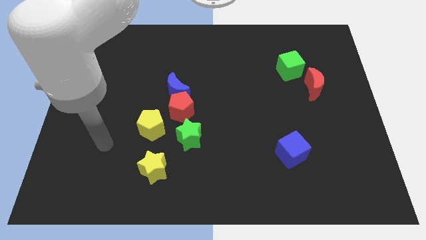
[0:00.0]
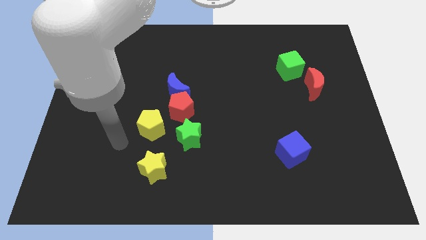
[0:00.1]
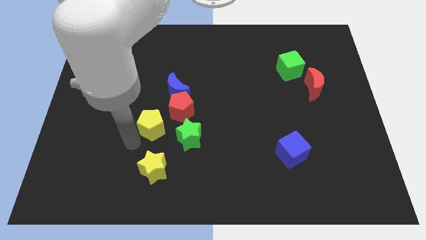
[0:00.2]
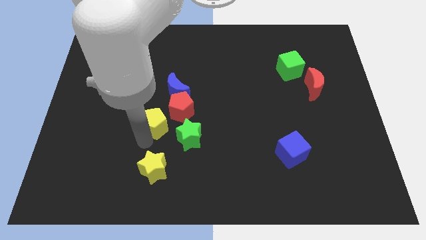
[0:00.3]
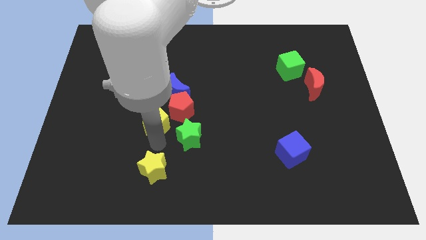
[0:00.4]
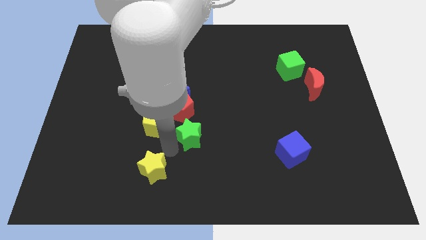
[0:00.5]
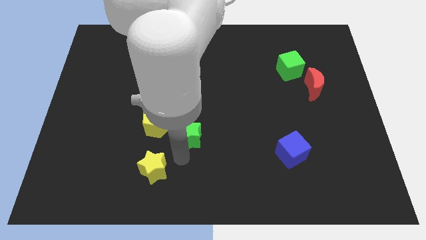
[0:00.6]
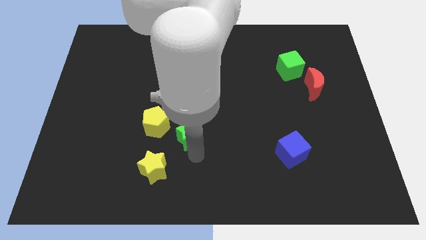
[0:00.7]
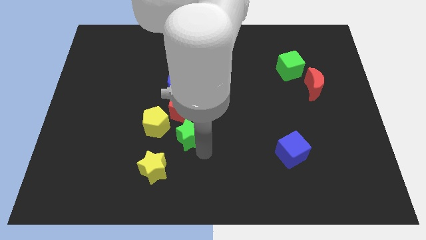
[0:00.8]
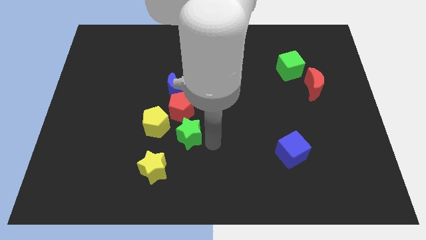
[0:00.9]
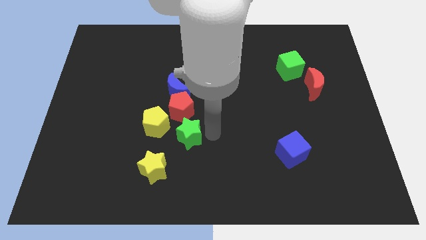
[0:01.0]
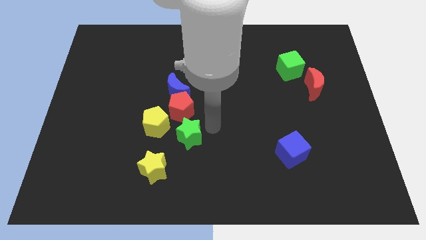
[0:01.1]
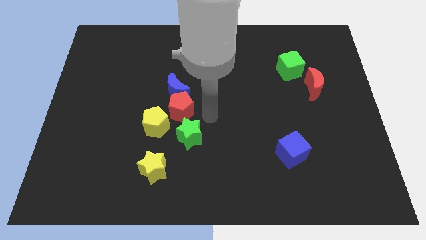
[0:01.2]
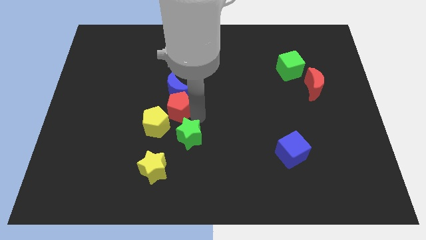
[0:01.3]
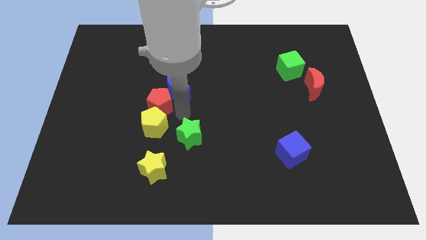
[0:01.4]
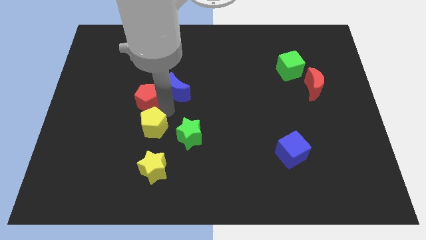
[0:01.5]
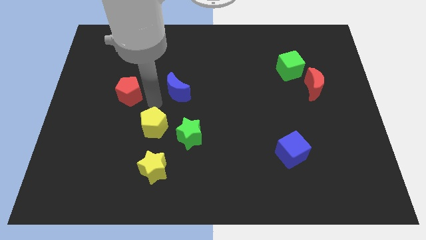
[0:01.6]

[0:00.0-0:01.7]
move the blue moon away from the red pentagon

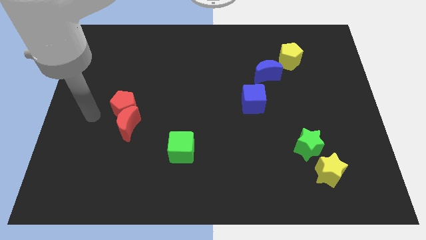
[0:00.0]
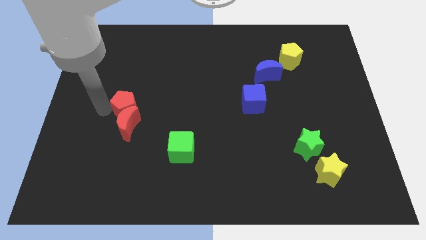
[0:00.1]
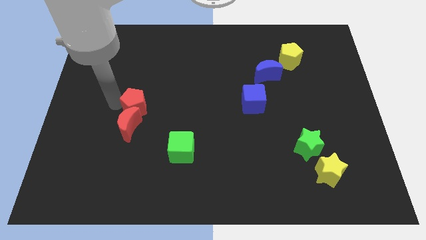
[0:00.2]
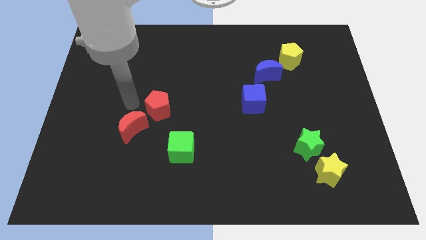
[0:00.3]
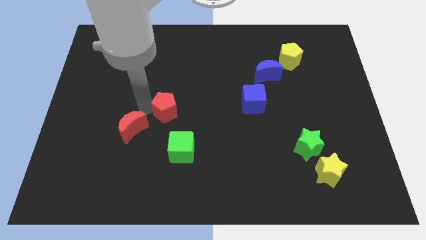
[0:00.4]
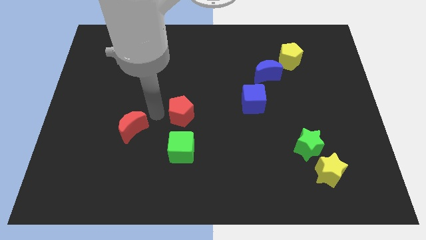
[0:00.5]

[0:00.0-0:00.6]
move the red moon away from the red pentagon

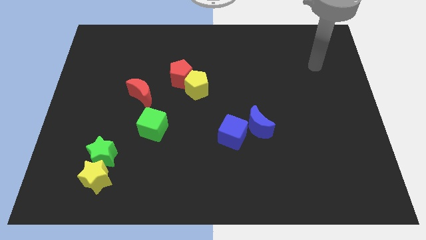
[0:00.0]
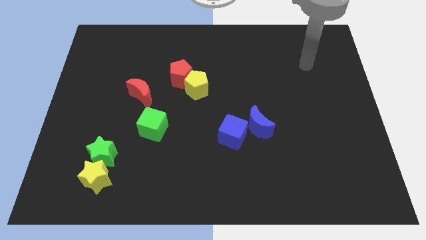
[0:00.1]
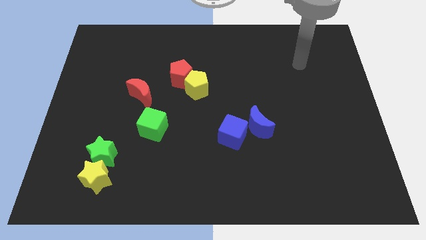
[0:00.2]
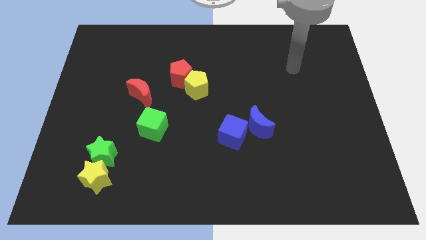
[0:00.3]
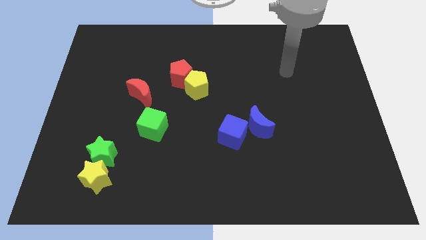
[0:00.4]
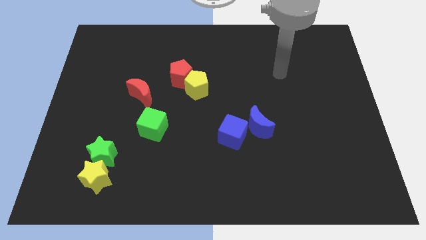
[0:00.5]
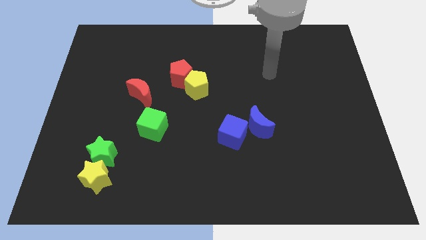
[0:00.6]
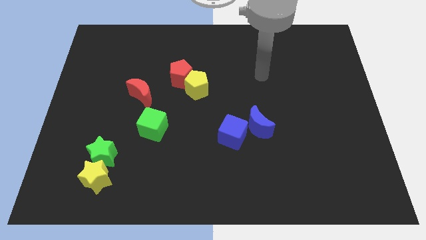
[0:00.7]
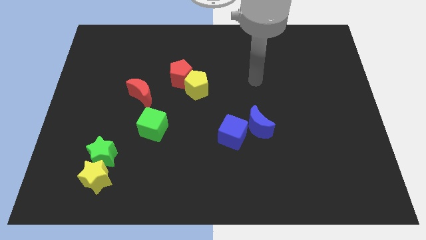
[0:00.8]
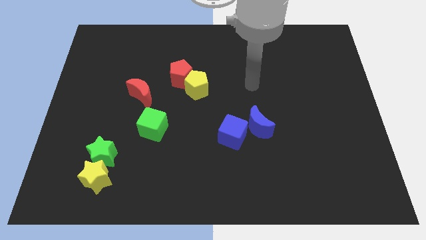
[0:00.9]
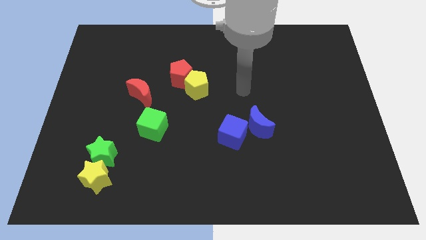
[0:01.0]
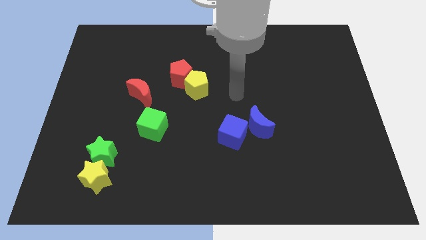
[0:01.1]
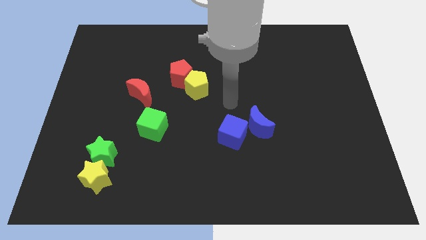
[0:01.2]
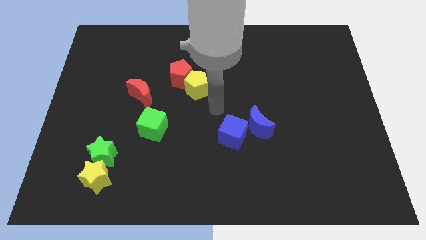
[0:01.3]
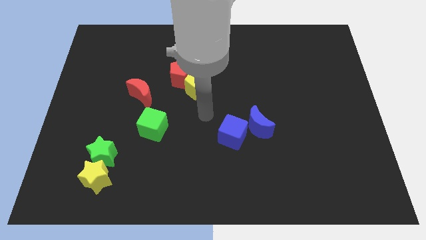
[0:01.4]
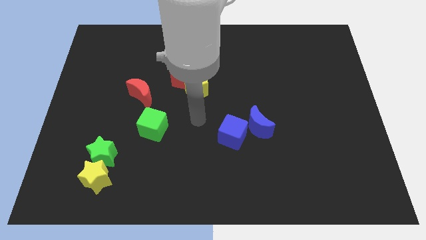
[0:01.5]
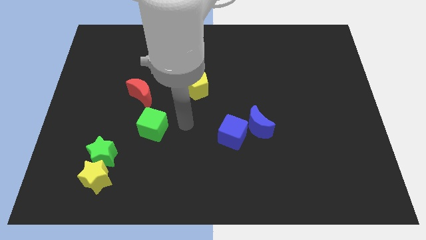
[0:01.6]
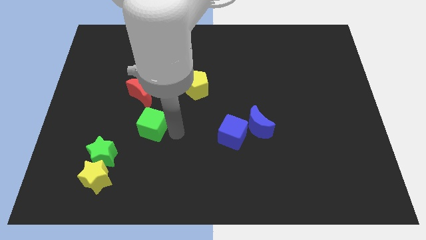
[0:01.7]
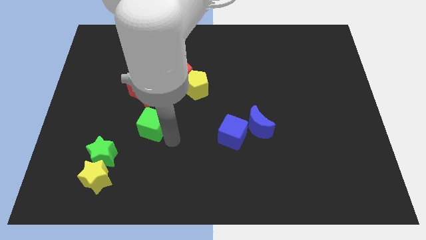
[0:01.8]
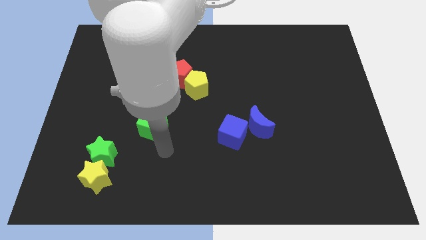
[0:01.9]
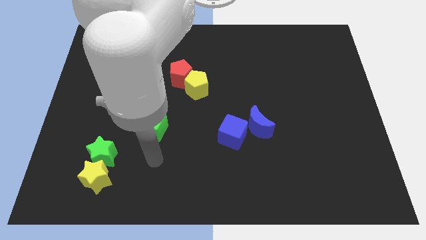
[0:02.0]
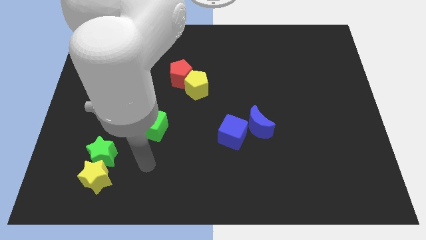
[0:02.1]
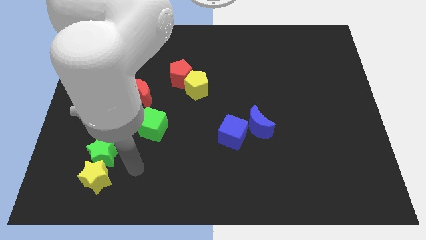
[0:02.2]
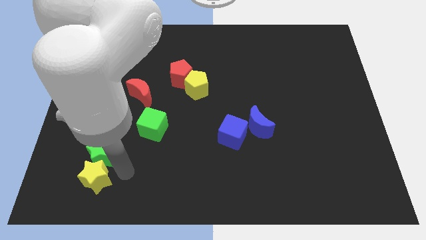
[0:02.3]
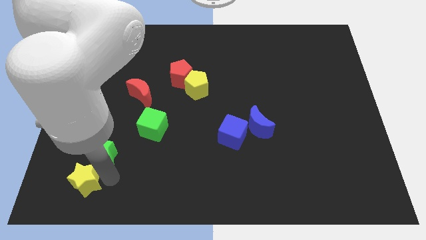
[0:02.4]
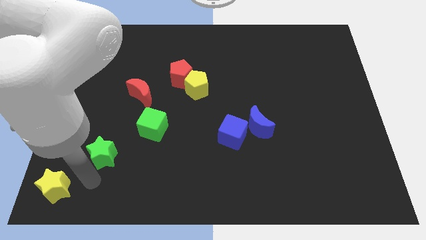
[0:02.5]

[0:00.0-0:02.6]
pull the green star apart from the yellow star

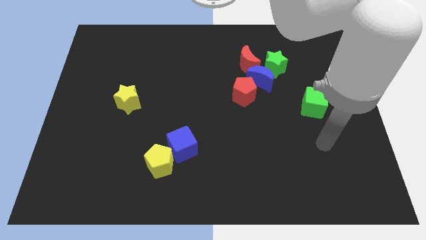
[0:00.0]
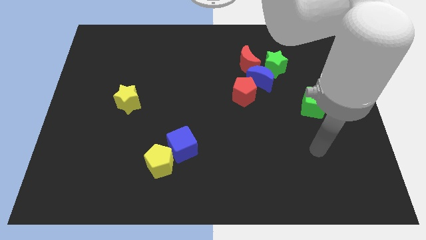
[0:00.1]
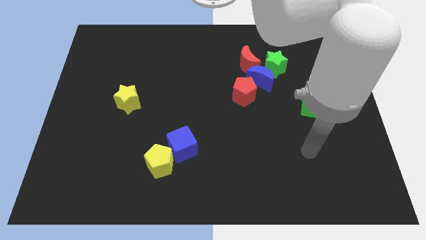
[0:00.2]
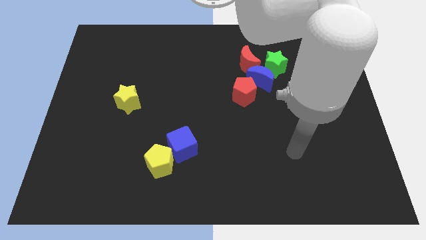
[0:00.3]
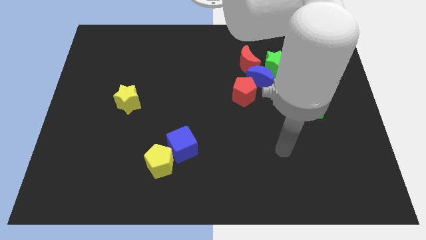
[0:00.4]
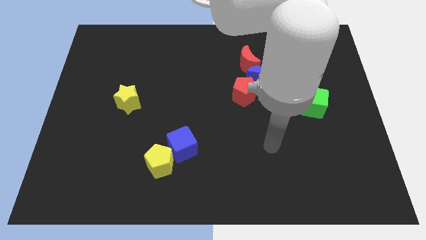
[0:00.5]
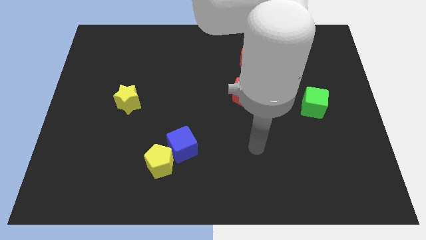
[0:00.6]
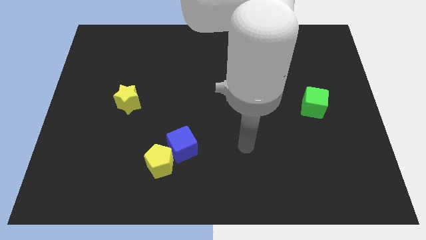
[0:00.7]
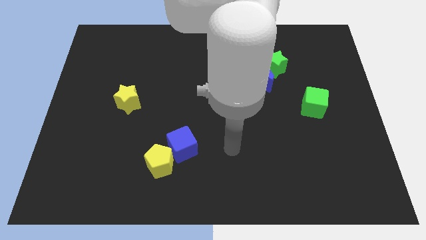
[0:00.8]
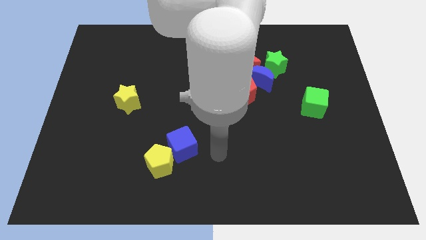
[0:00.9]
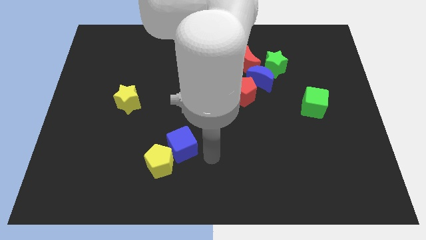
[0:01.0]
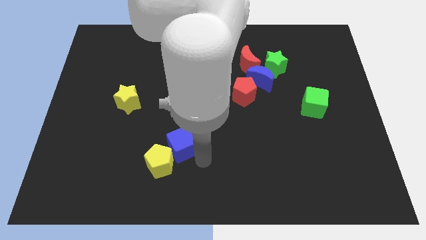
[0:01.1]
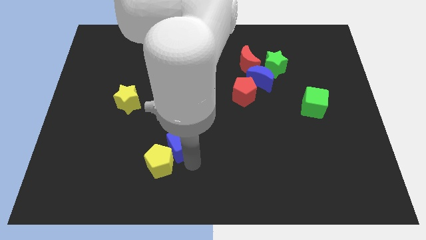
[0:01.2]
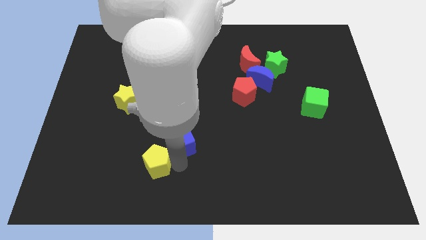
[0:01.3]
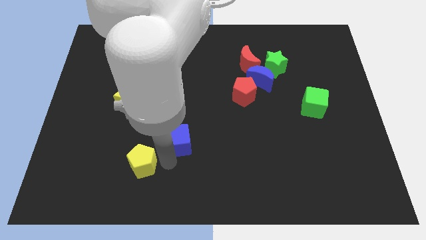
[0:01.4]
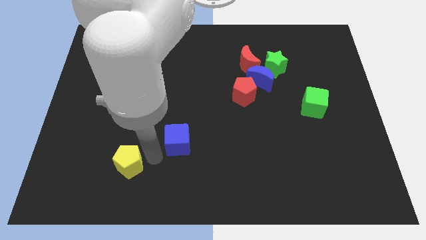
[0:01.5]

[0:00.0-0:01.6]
pull the blue cube apart from the yellow pentagon

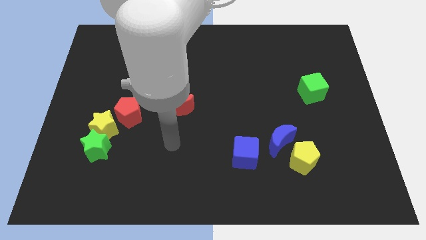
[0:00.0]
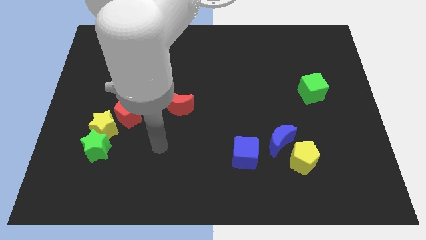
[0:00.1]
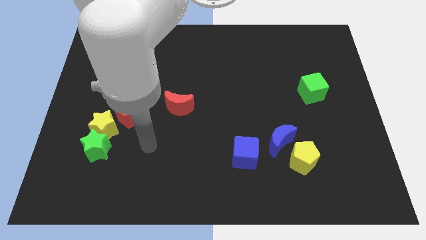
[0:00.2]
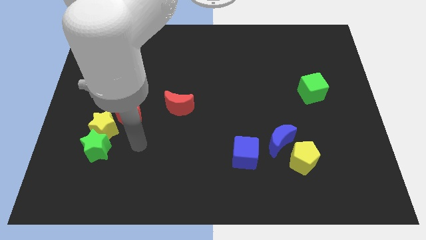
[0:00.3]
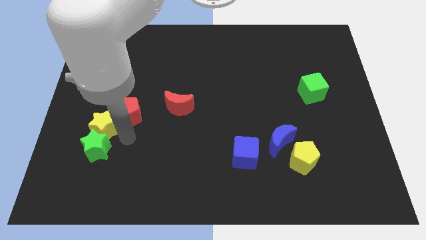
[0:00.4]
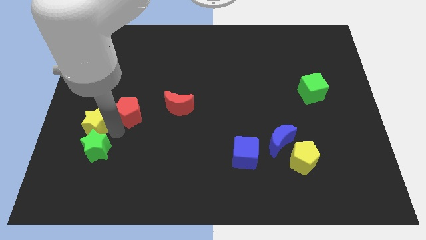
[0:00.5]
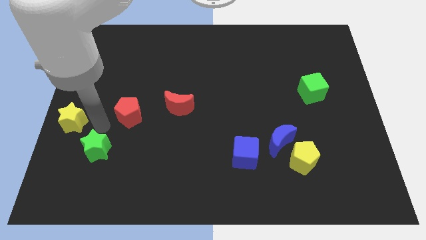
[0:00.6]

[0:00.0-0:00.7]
separate the green star from the yellow star

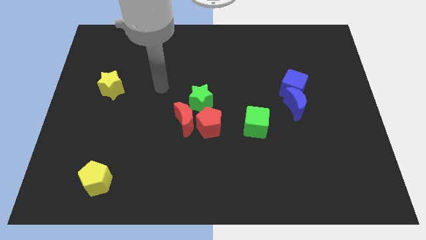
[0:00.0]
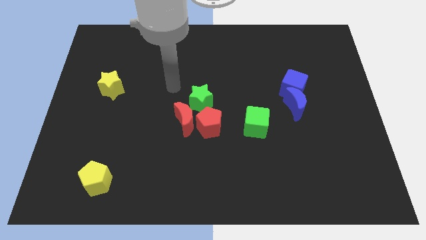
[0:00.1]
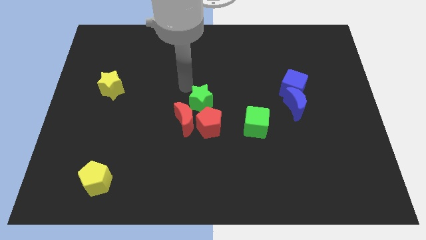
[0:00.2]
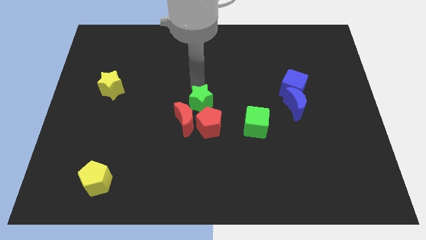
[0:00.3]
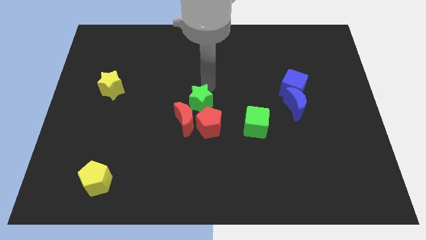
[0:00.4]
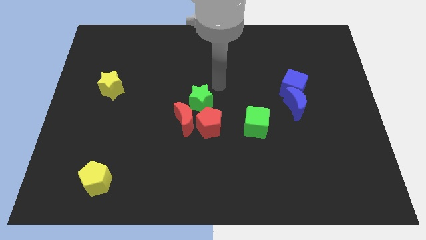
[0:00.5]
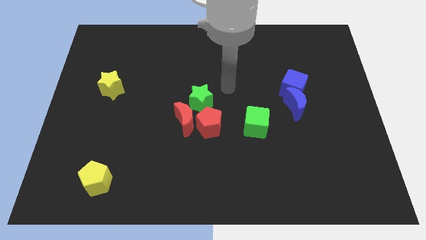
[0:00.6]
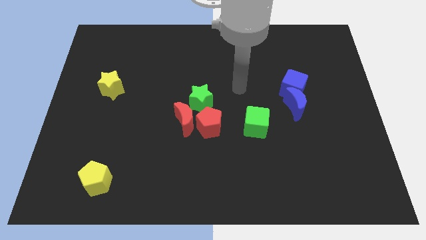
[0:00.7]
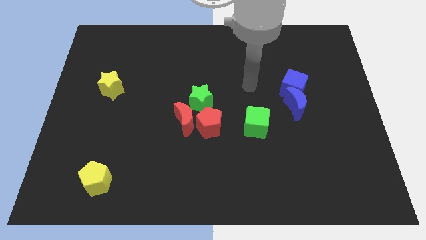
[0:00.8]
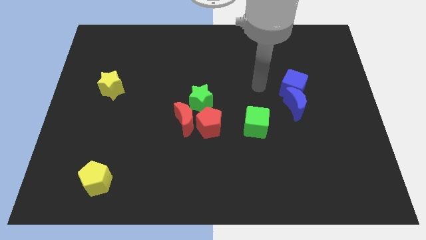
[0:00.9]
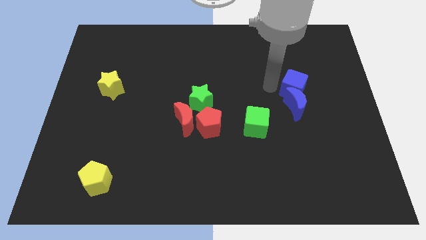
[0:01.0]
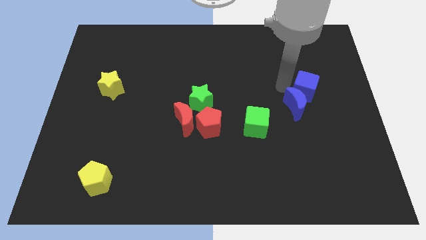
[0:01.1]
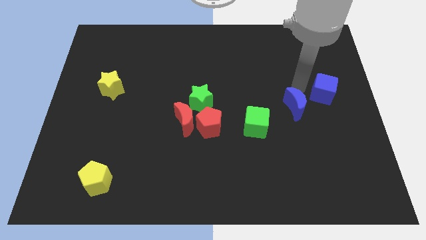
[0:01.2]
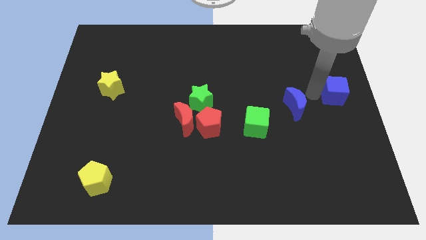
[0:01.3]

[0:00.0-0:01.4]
pull the blue moon apart from the blue cube

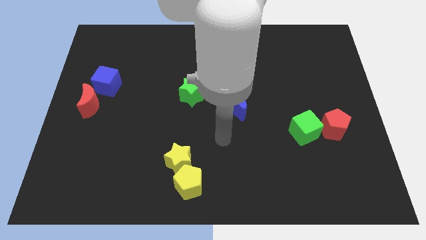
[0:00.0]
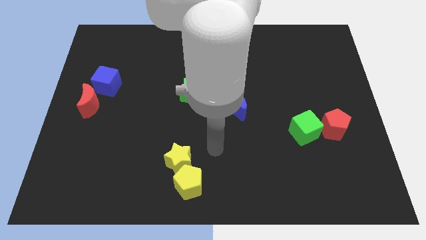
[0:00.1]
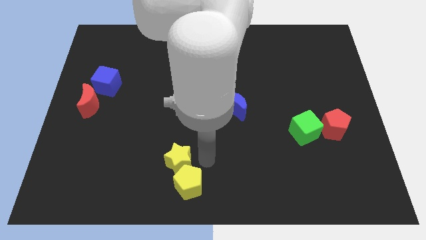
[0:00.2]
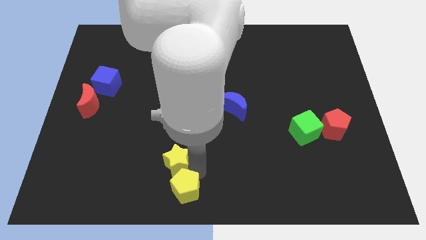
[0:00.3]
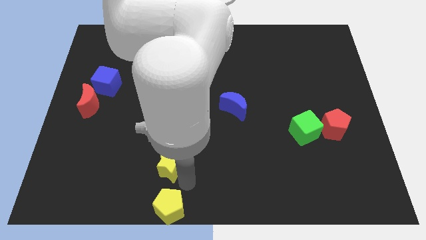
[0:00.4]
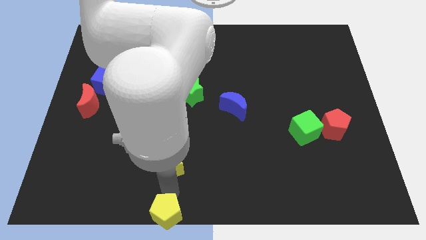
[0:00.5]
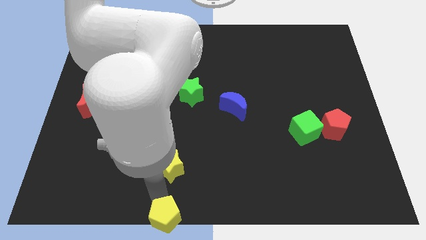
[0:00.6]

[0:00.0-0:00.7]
pull the yellow star apart from the yellow pentagon
